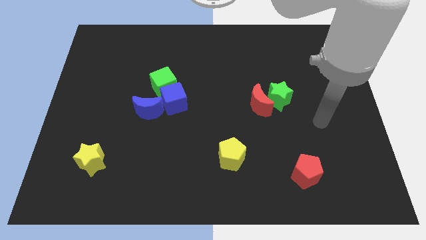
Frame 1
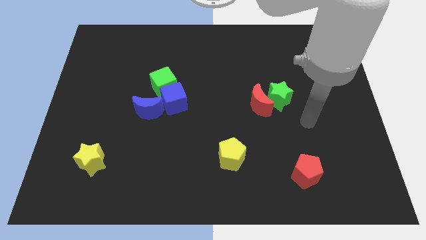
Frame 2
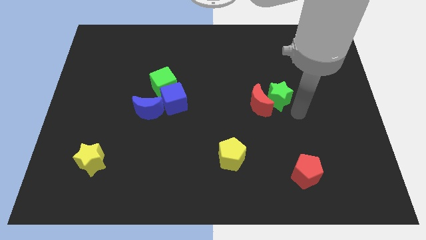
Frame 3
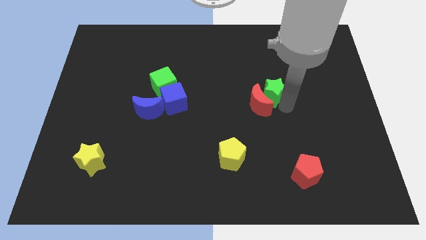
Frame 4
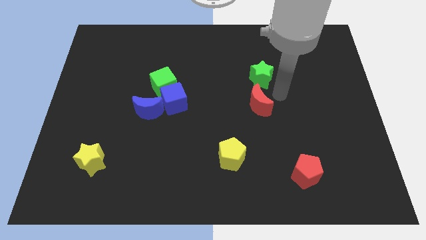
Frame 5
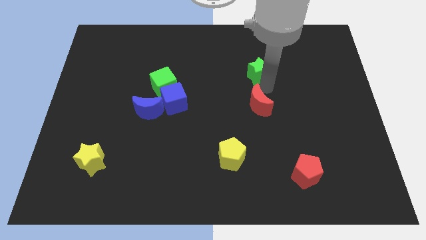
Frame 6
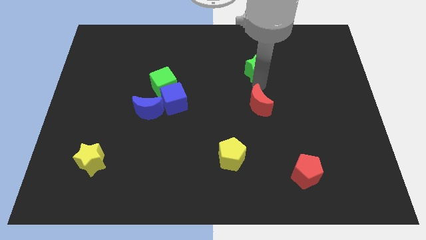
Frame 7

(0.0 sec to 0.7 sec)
separate the red moon from the green star

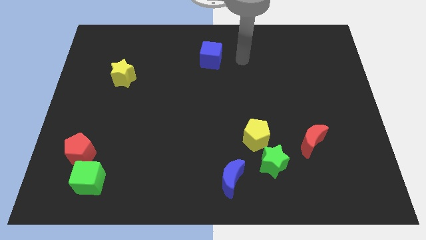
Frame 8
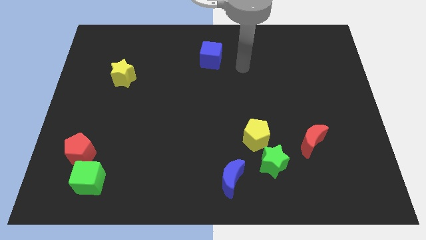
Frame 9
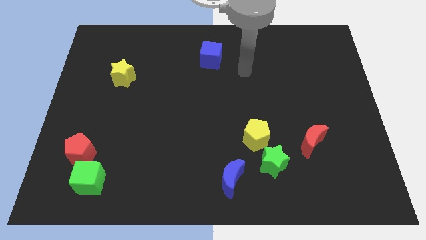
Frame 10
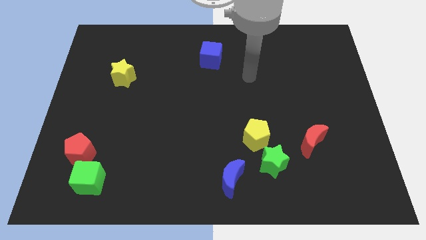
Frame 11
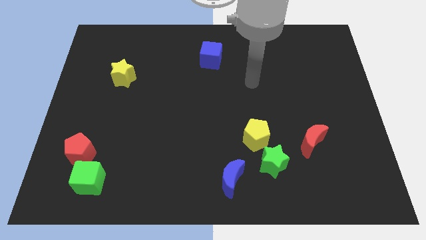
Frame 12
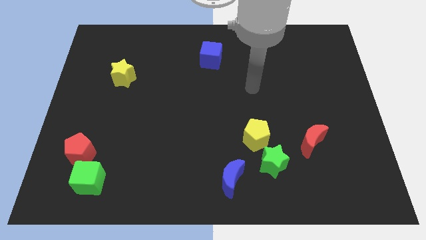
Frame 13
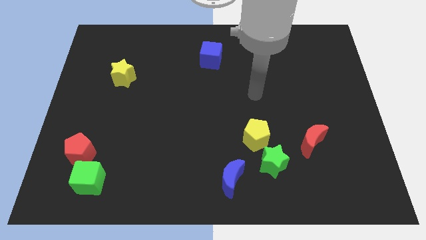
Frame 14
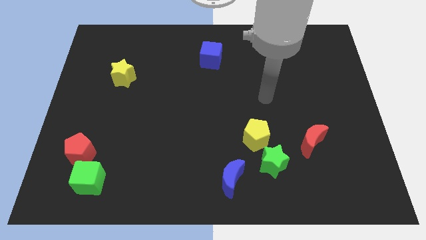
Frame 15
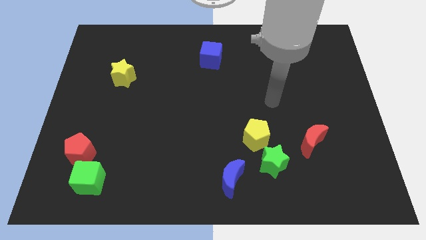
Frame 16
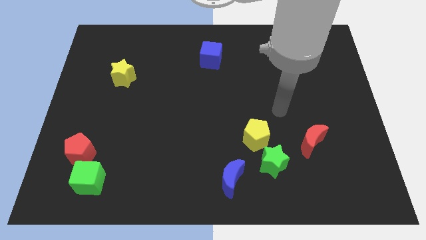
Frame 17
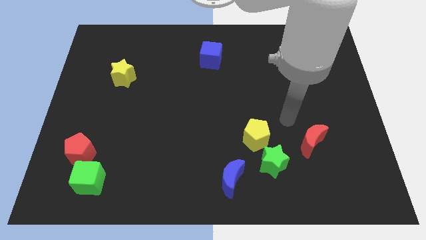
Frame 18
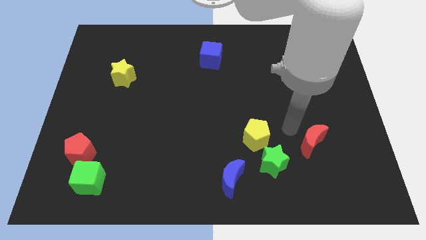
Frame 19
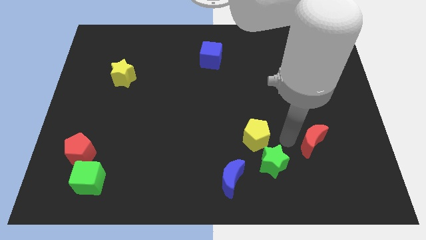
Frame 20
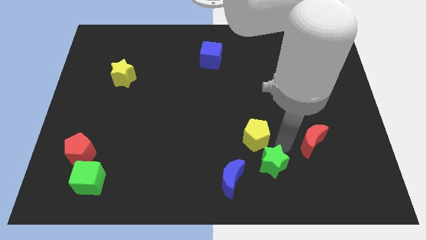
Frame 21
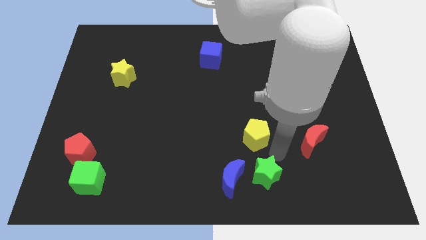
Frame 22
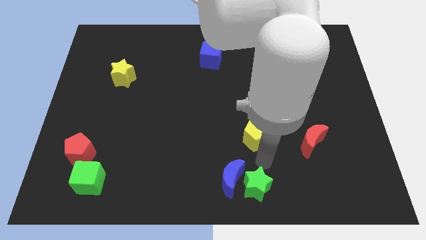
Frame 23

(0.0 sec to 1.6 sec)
move the yellow pentagon away from the green star

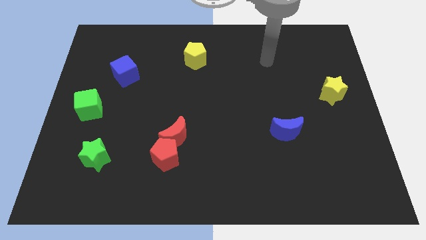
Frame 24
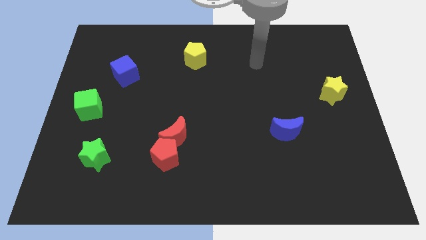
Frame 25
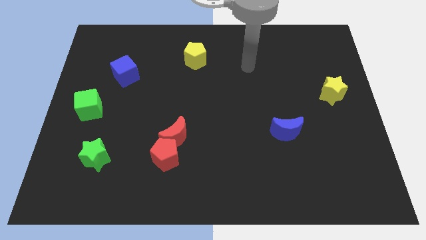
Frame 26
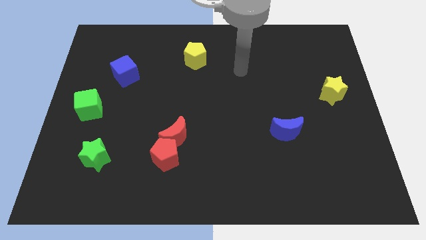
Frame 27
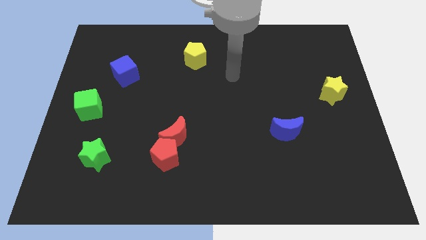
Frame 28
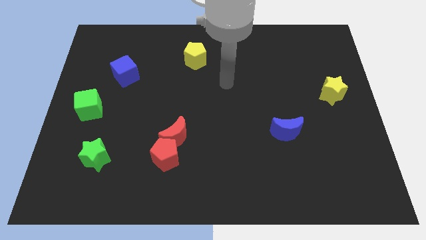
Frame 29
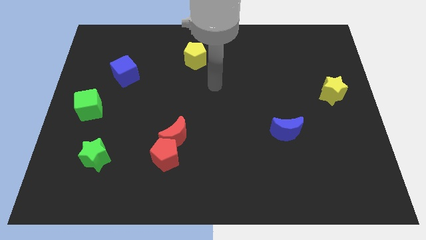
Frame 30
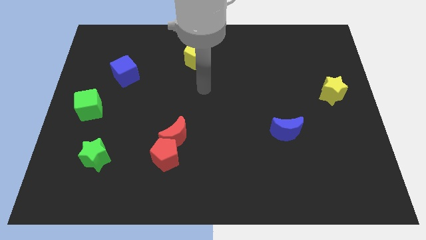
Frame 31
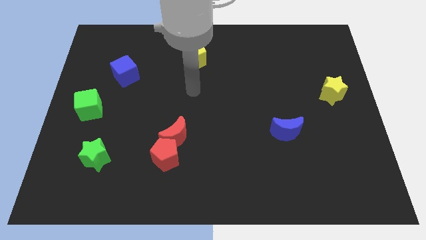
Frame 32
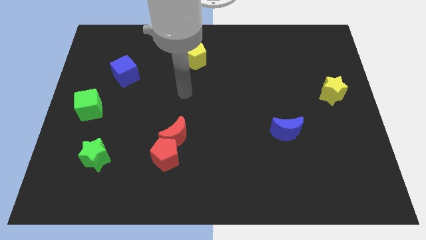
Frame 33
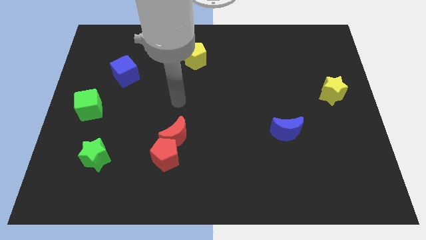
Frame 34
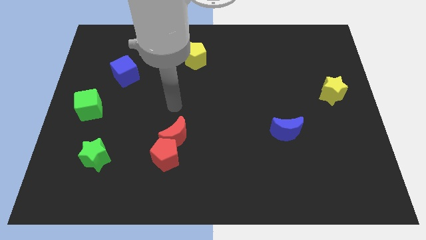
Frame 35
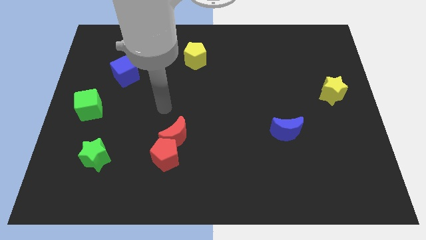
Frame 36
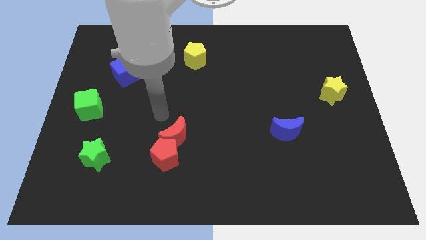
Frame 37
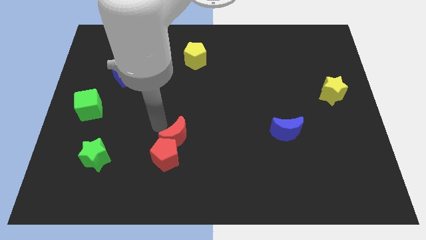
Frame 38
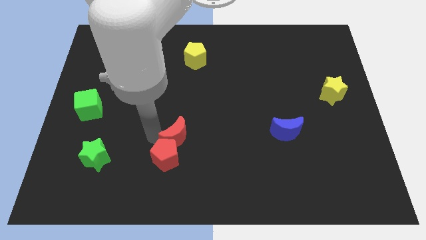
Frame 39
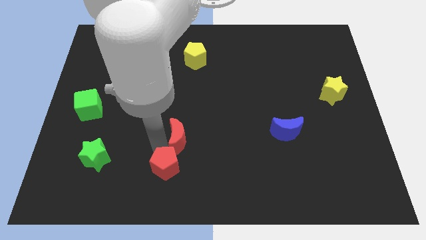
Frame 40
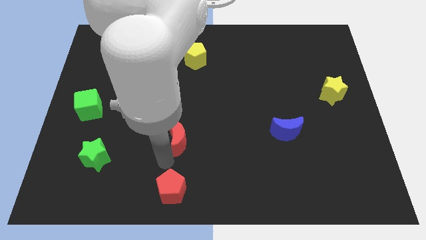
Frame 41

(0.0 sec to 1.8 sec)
move the red moon away from the red pentagon

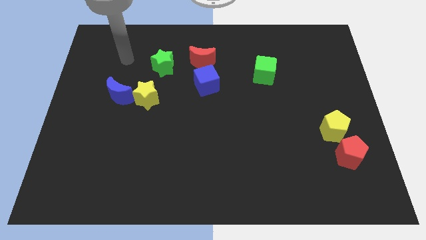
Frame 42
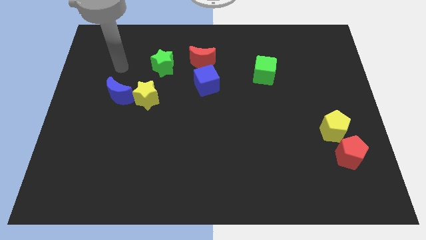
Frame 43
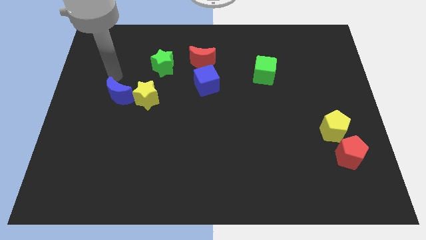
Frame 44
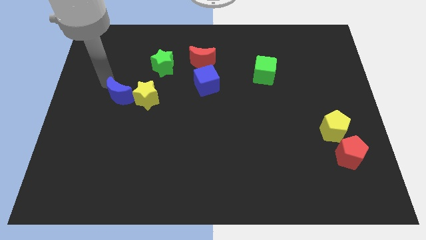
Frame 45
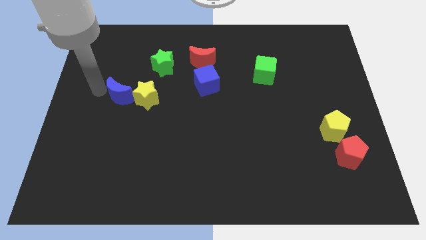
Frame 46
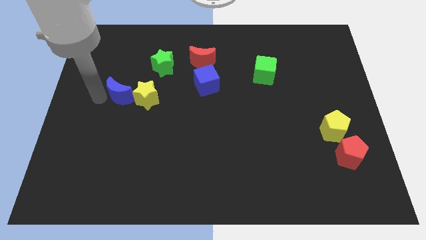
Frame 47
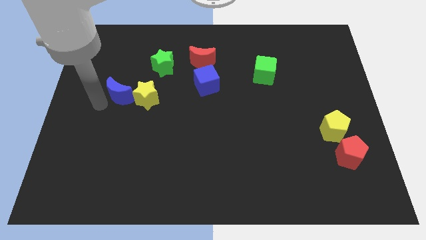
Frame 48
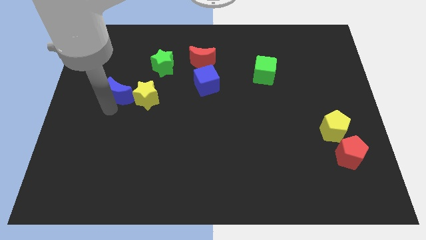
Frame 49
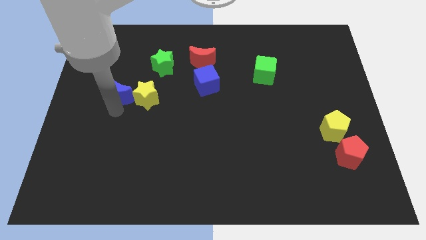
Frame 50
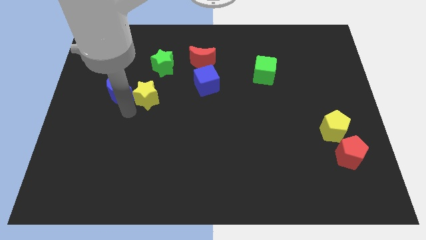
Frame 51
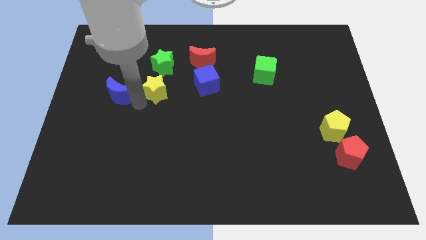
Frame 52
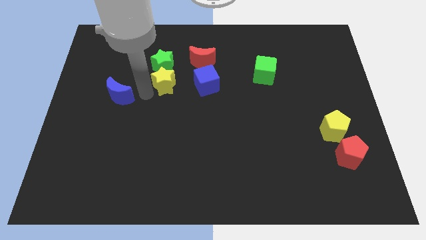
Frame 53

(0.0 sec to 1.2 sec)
separate the blue moon from the yellow star

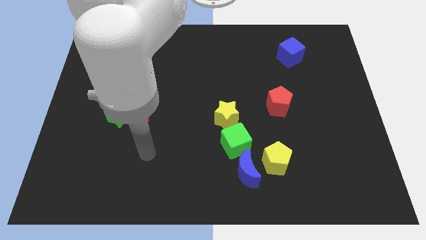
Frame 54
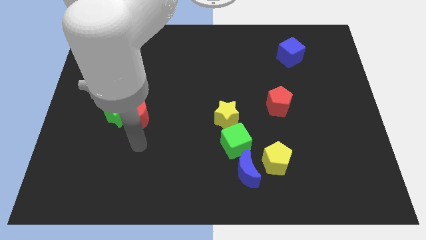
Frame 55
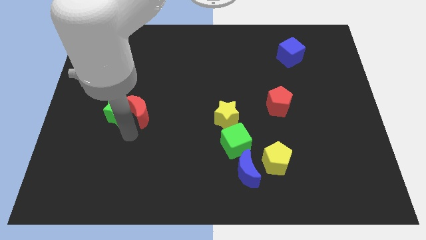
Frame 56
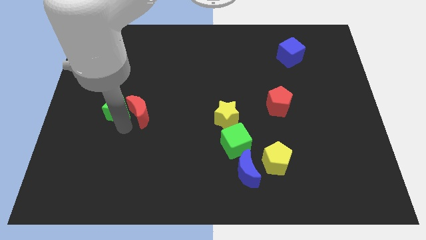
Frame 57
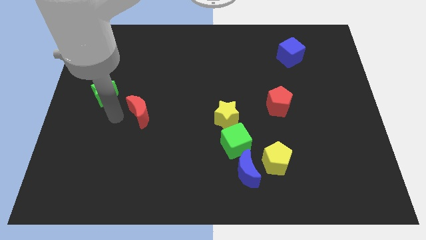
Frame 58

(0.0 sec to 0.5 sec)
move the red moon away from the green star

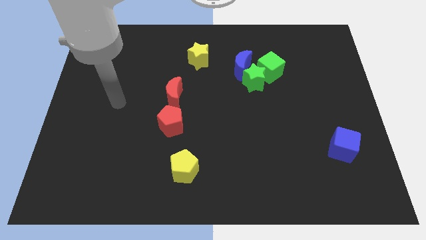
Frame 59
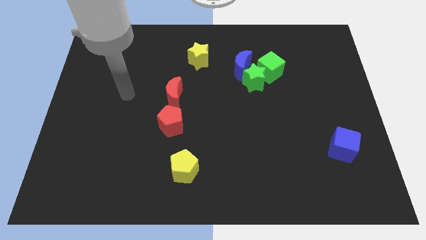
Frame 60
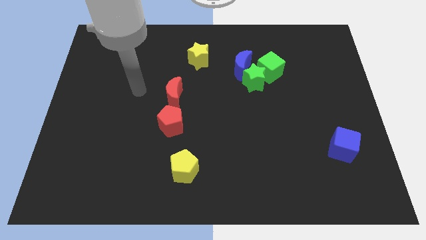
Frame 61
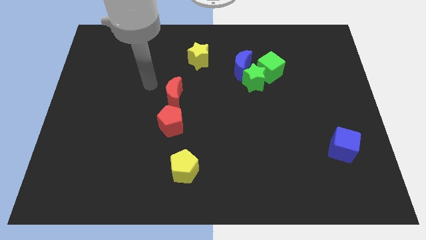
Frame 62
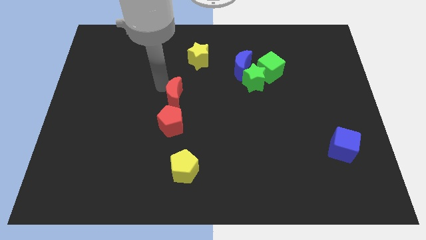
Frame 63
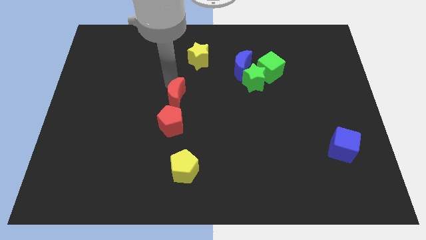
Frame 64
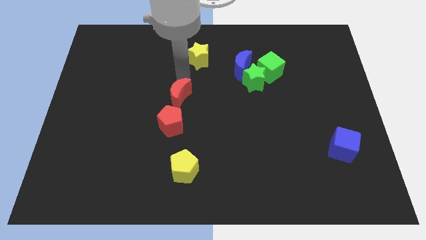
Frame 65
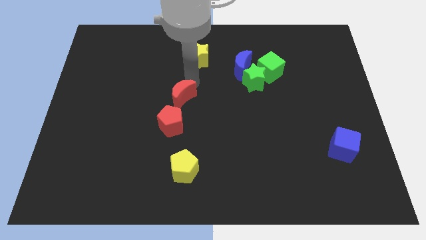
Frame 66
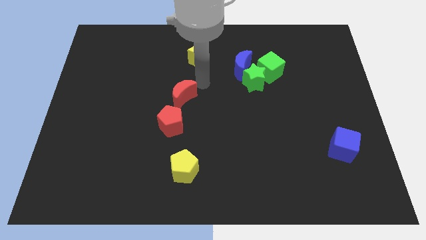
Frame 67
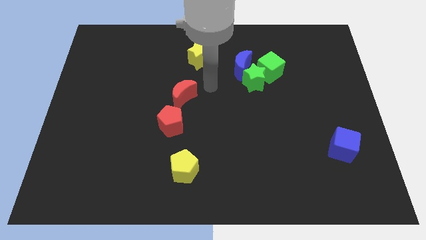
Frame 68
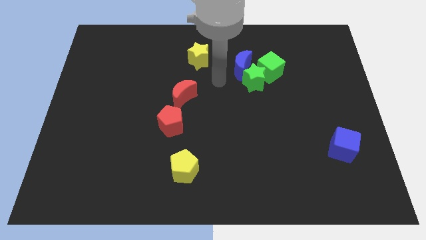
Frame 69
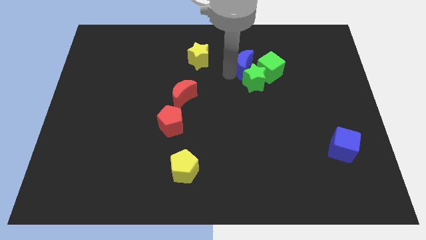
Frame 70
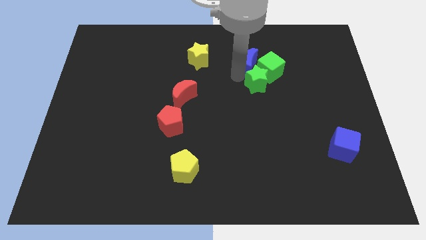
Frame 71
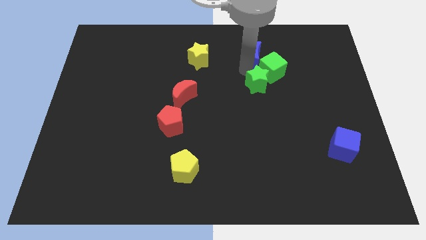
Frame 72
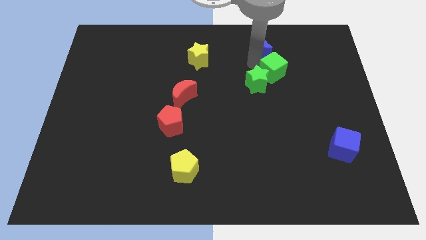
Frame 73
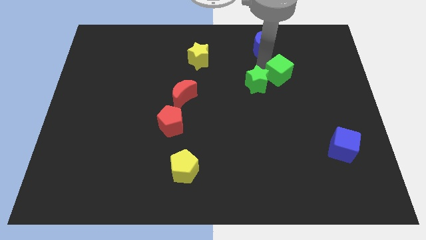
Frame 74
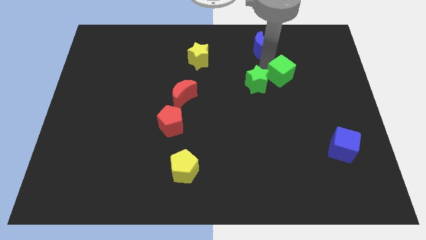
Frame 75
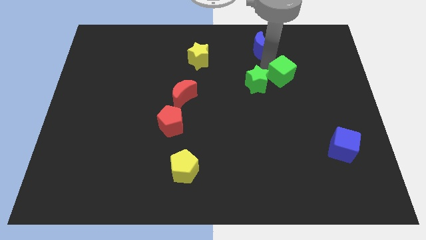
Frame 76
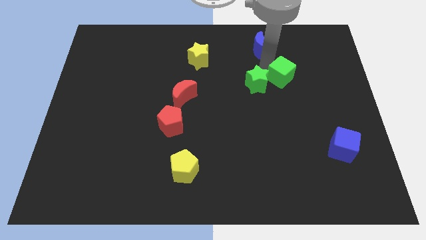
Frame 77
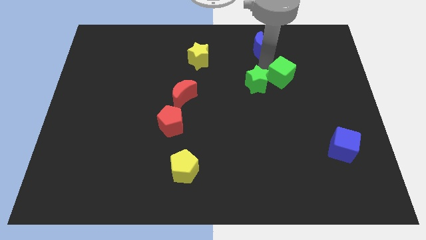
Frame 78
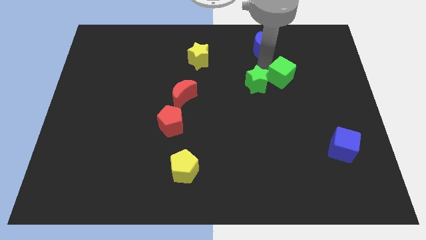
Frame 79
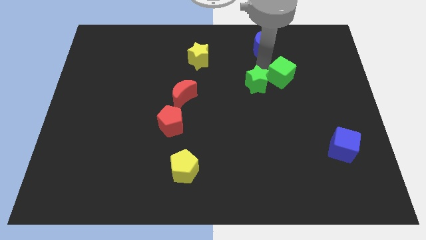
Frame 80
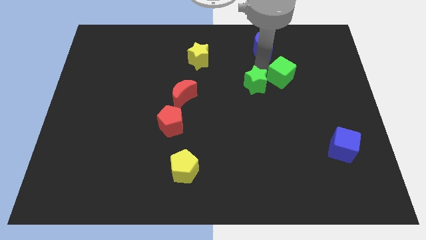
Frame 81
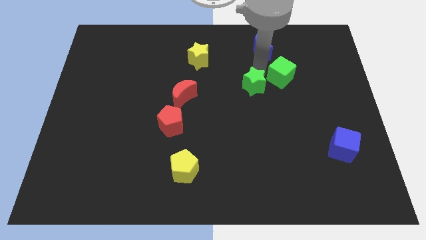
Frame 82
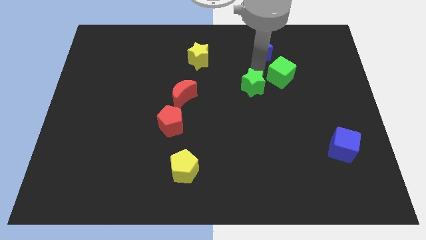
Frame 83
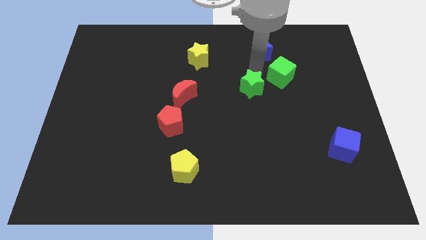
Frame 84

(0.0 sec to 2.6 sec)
pull the green star apart from the green cube and blue moon

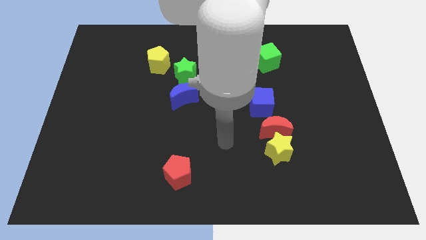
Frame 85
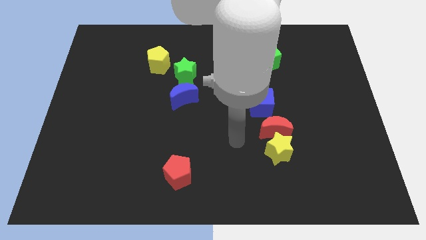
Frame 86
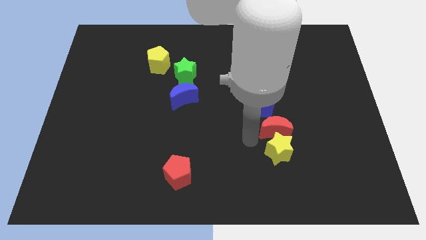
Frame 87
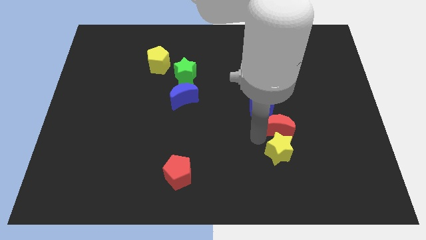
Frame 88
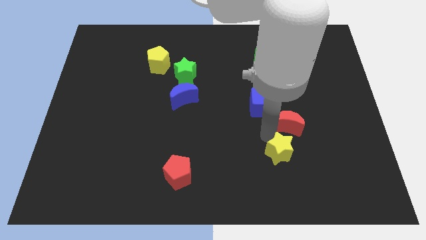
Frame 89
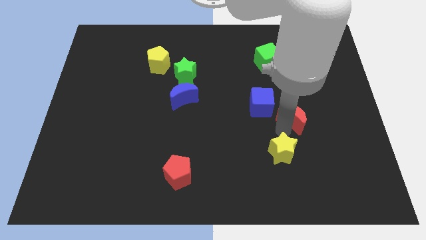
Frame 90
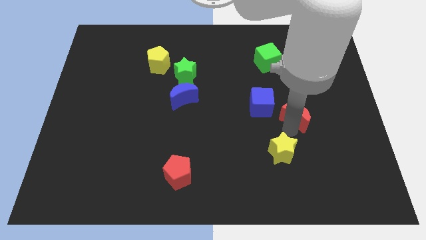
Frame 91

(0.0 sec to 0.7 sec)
move the yellow star away from the red moon

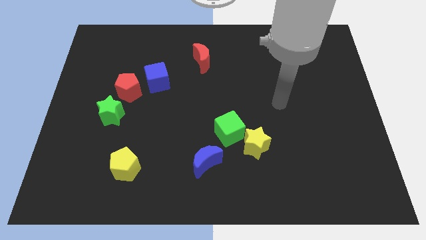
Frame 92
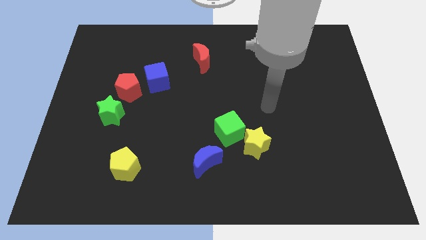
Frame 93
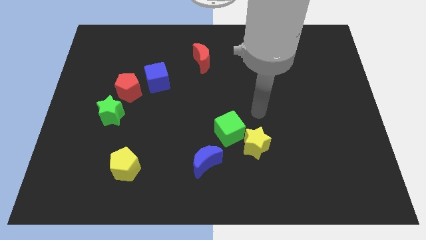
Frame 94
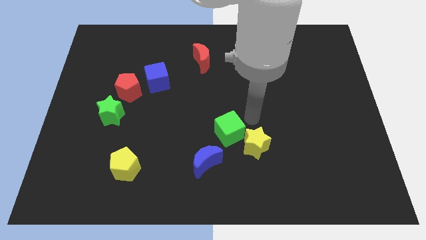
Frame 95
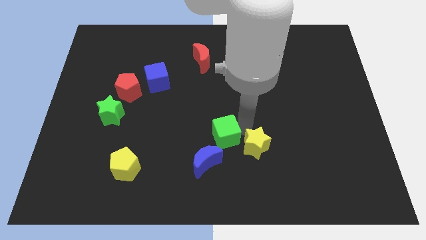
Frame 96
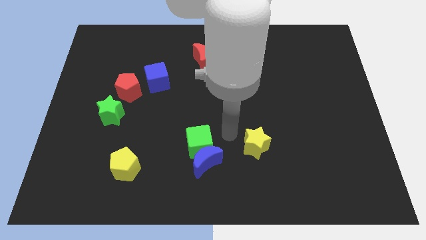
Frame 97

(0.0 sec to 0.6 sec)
move the yellow star away from the green cube
